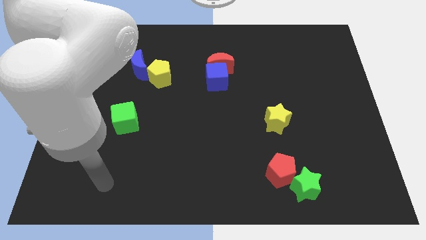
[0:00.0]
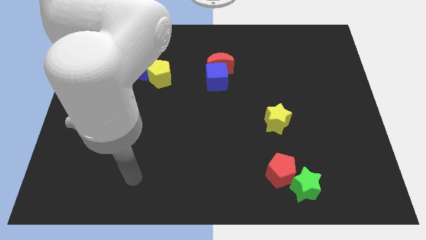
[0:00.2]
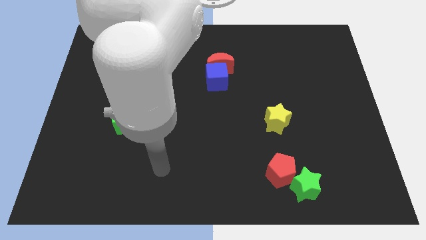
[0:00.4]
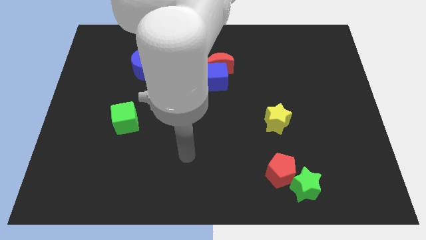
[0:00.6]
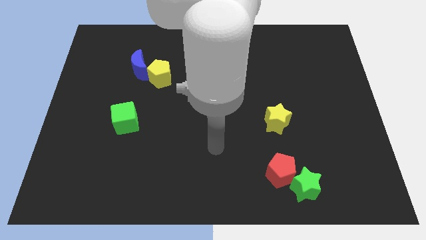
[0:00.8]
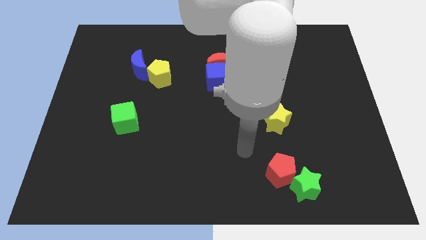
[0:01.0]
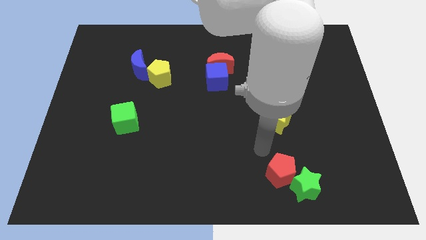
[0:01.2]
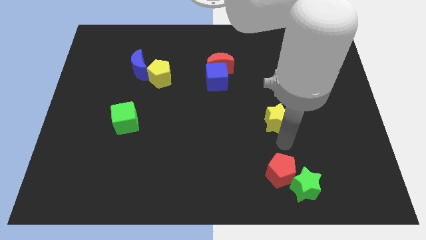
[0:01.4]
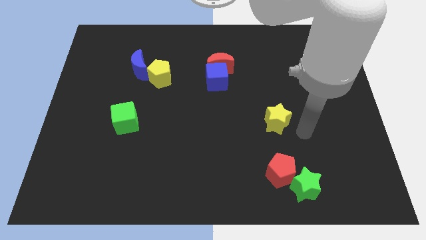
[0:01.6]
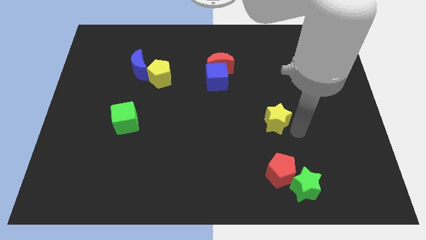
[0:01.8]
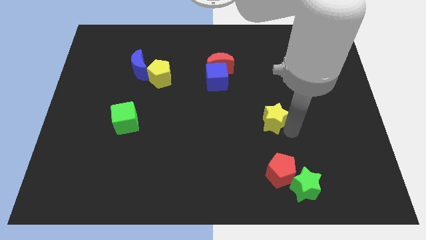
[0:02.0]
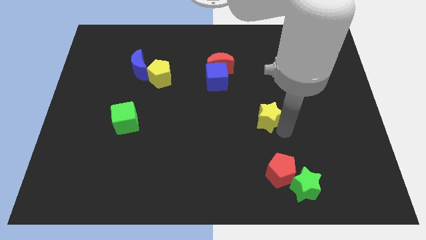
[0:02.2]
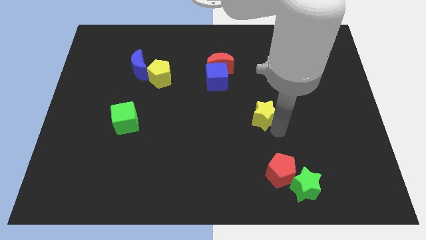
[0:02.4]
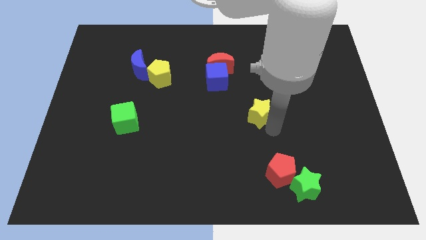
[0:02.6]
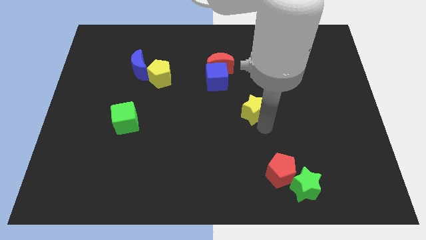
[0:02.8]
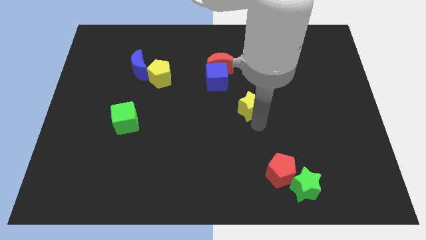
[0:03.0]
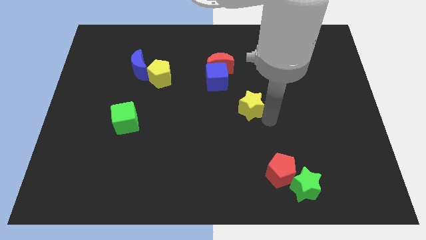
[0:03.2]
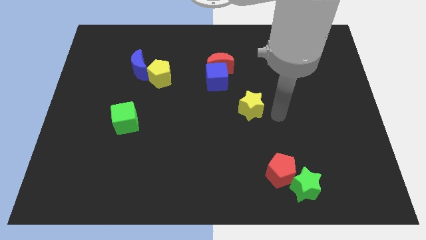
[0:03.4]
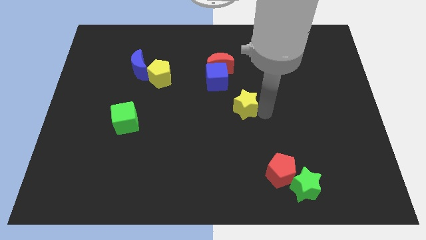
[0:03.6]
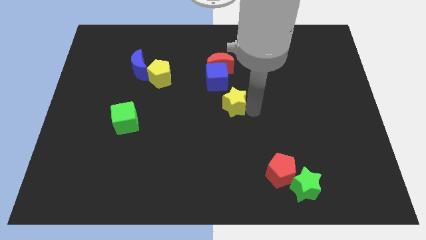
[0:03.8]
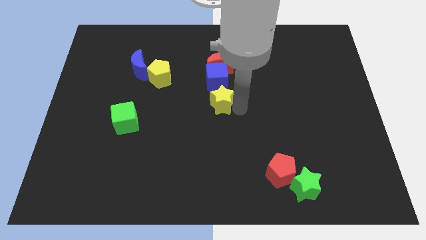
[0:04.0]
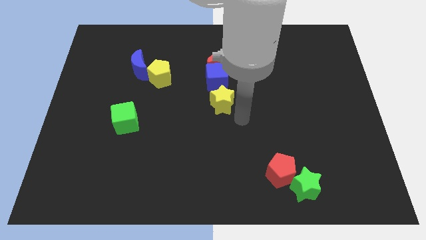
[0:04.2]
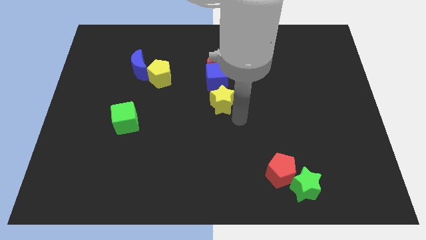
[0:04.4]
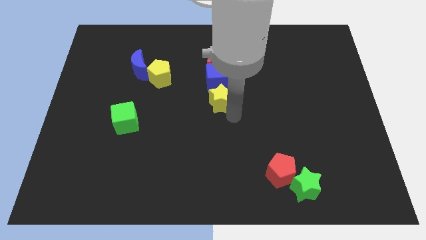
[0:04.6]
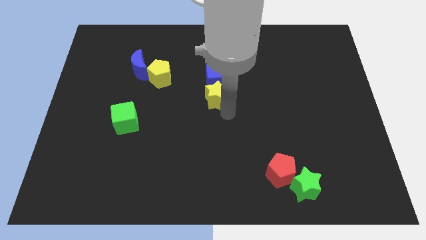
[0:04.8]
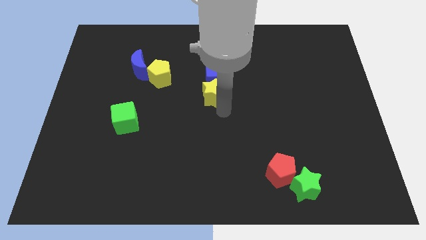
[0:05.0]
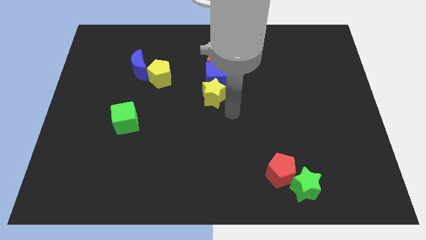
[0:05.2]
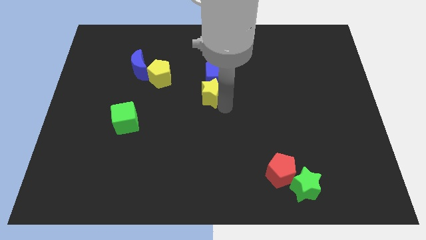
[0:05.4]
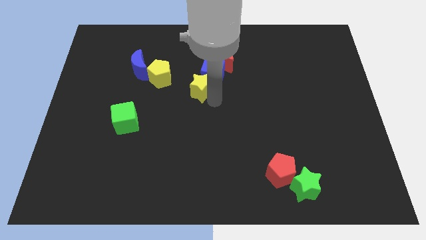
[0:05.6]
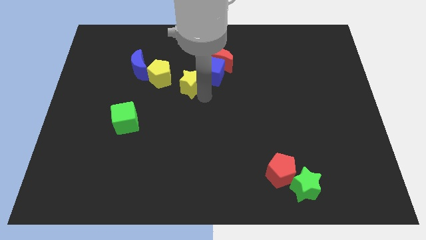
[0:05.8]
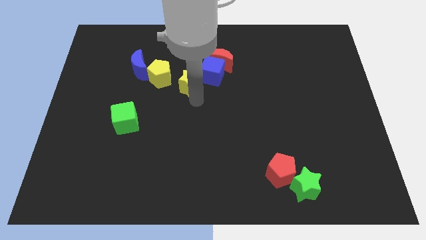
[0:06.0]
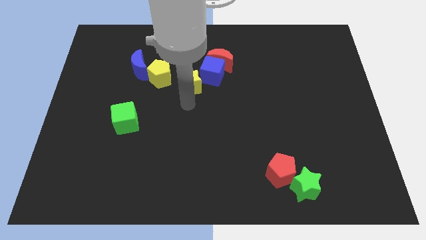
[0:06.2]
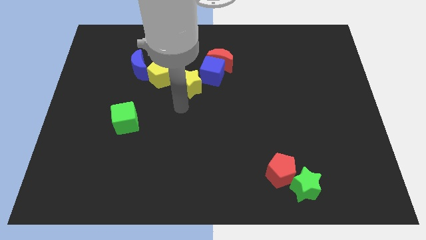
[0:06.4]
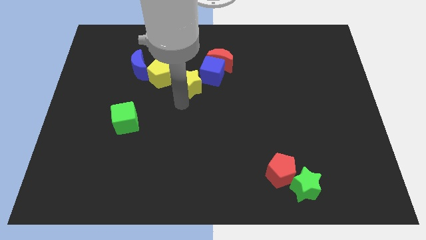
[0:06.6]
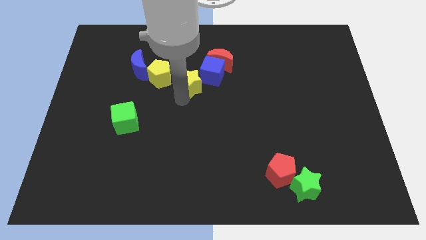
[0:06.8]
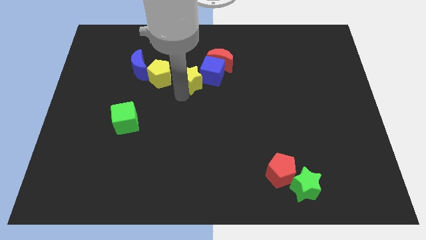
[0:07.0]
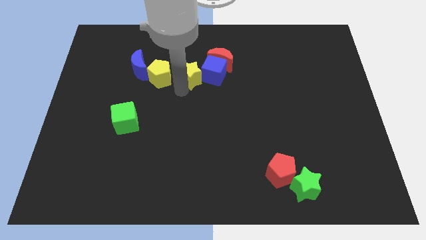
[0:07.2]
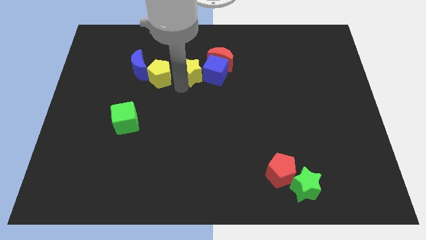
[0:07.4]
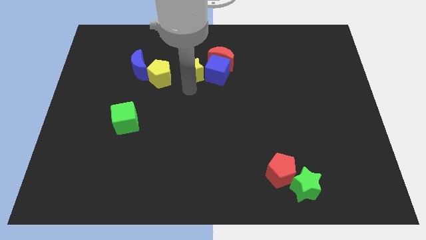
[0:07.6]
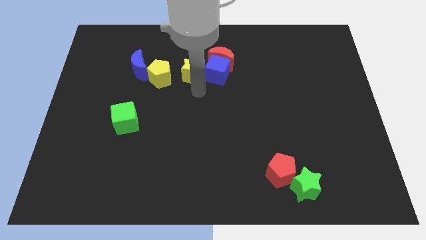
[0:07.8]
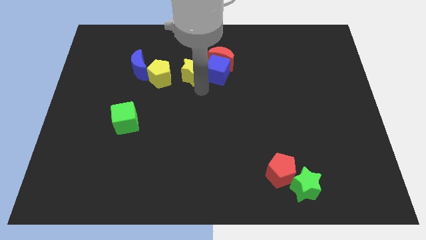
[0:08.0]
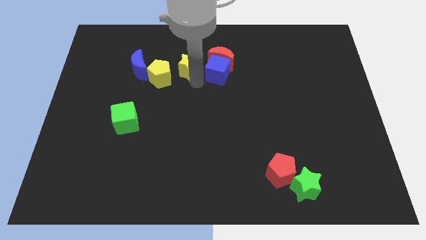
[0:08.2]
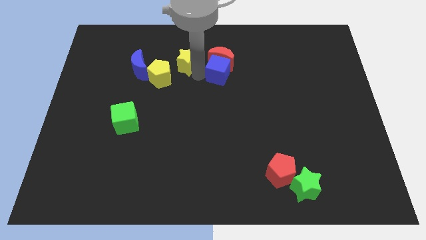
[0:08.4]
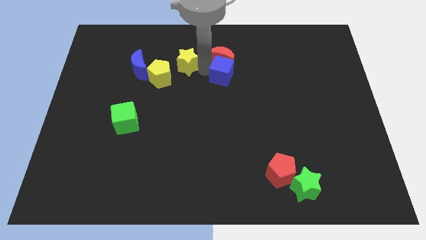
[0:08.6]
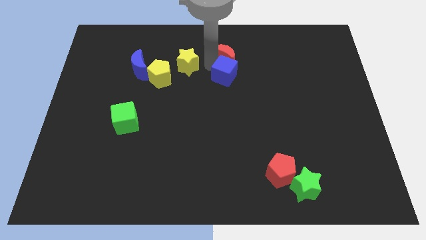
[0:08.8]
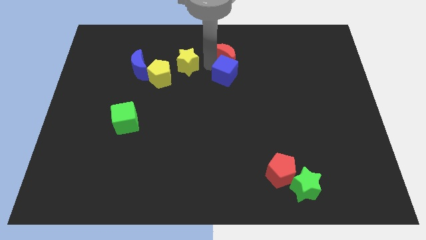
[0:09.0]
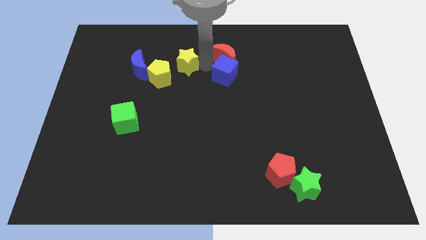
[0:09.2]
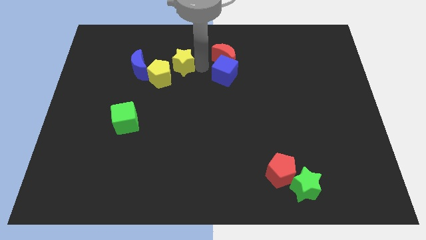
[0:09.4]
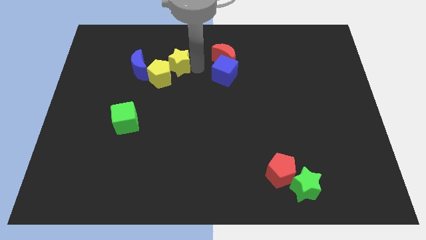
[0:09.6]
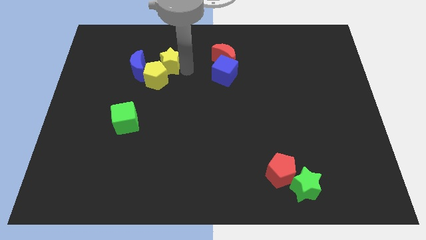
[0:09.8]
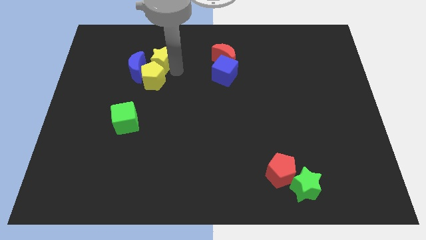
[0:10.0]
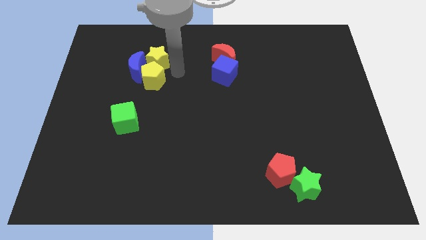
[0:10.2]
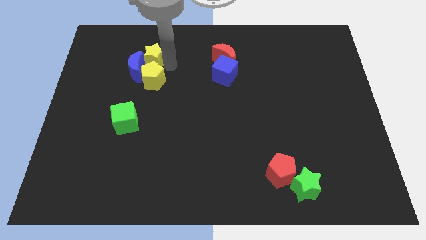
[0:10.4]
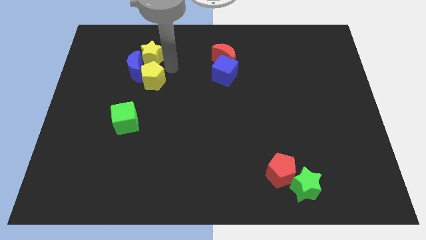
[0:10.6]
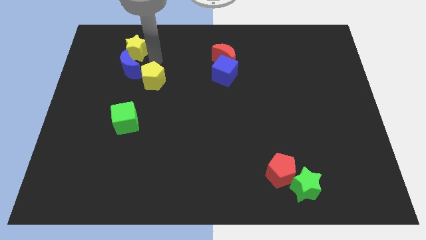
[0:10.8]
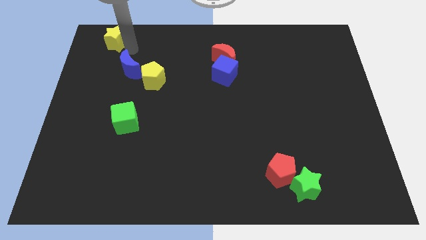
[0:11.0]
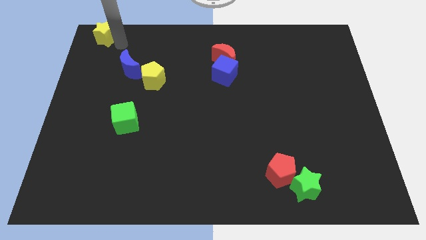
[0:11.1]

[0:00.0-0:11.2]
put the yellow star to the top left of the board
